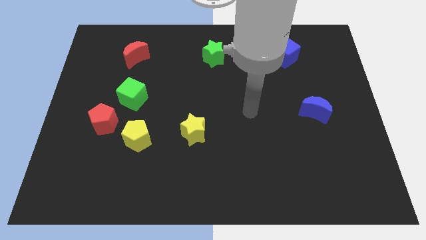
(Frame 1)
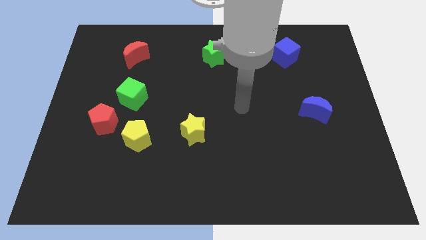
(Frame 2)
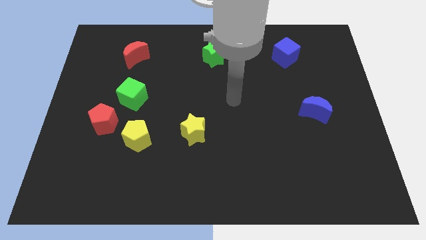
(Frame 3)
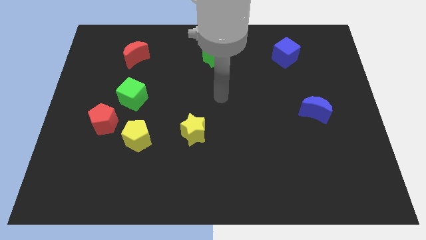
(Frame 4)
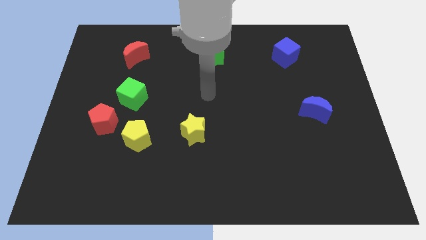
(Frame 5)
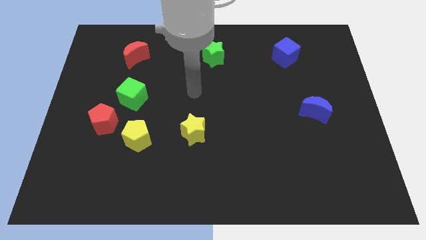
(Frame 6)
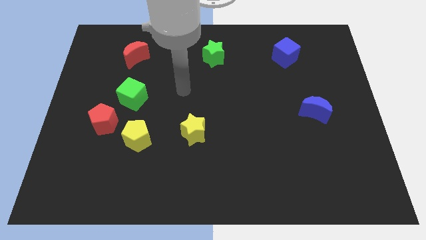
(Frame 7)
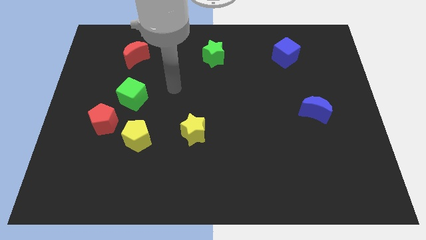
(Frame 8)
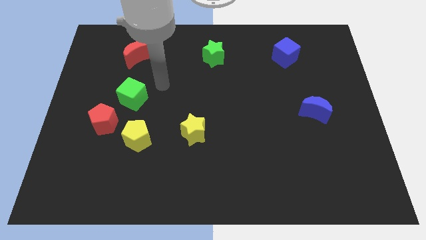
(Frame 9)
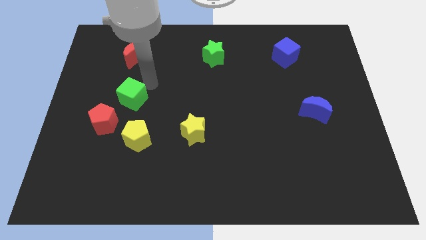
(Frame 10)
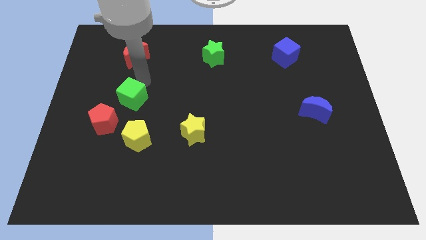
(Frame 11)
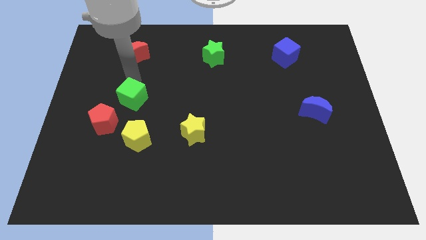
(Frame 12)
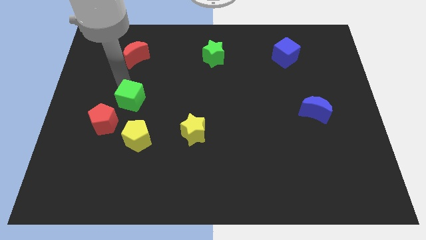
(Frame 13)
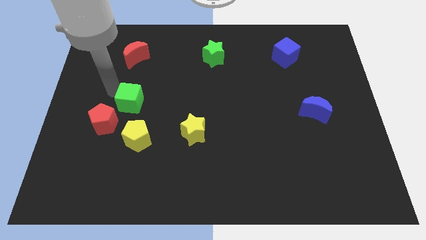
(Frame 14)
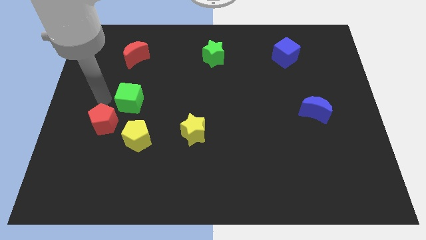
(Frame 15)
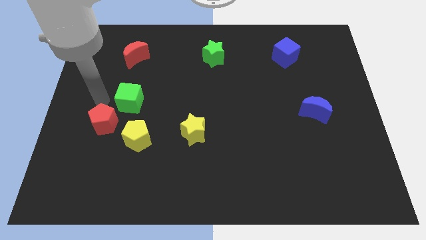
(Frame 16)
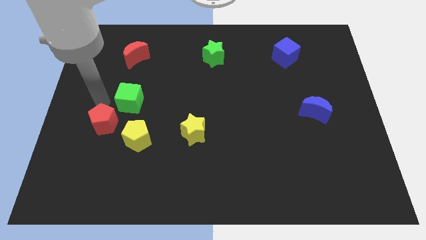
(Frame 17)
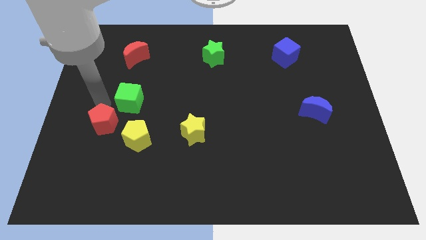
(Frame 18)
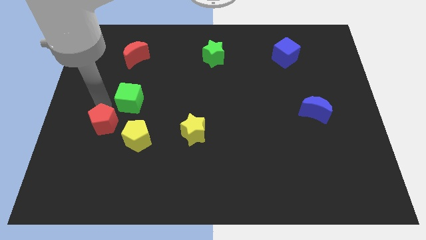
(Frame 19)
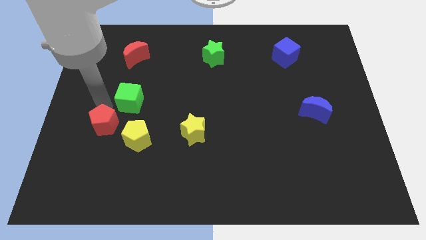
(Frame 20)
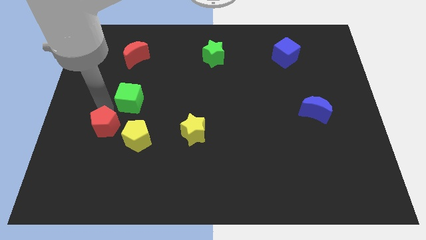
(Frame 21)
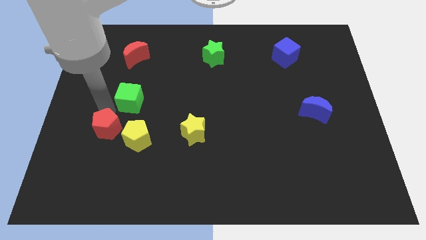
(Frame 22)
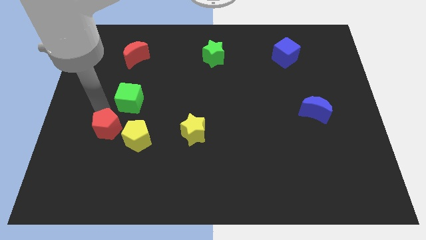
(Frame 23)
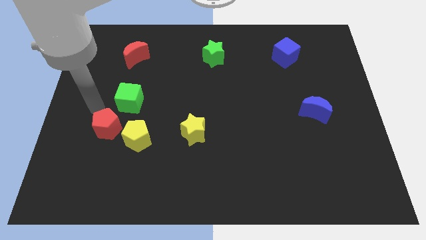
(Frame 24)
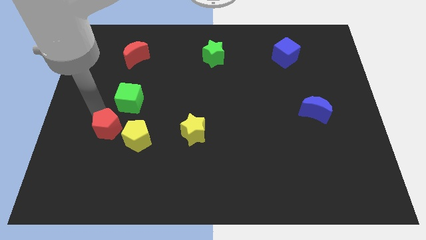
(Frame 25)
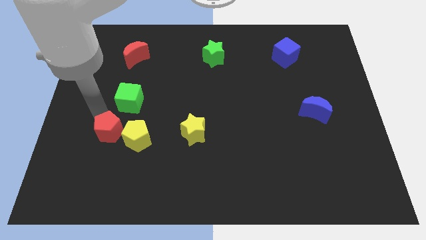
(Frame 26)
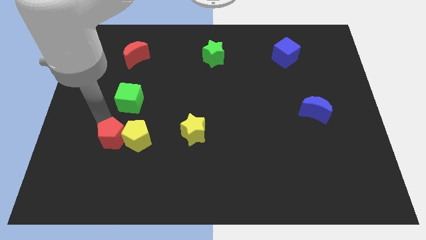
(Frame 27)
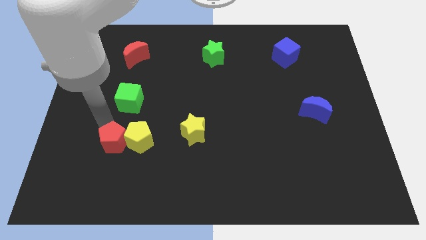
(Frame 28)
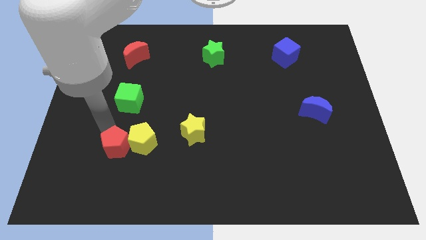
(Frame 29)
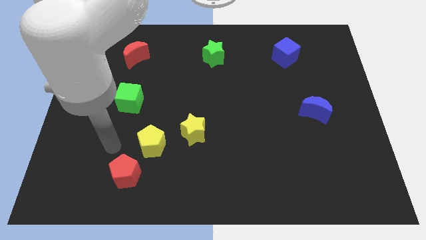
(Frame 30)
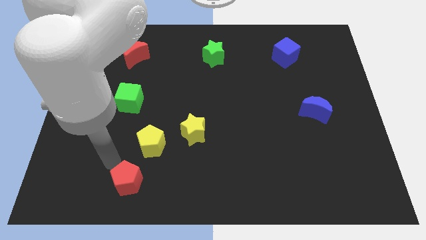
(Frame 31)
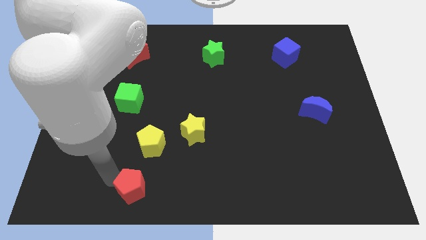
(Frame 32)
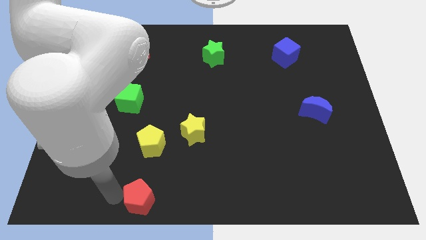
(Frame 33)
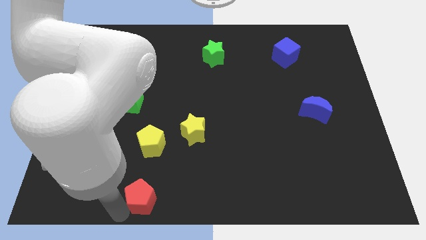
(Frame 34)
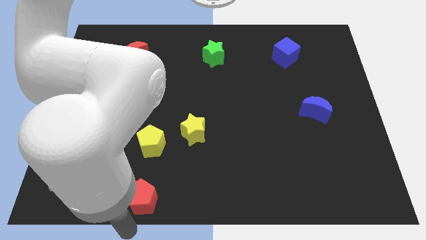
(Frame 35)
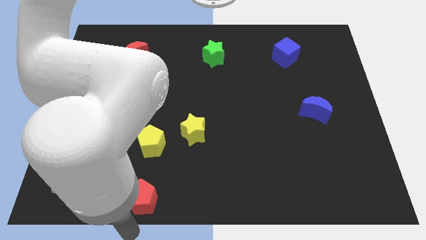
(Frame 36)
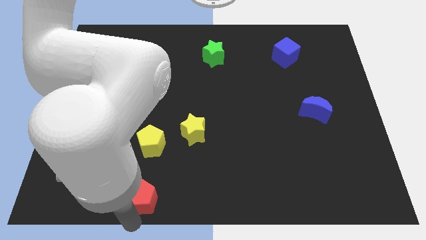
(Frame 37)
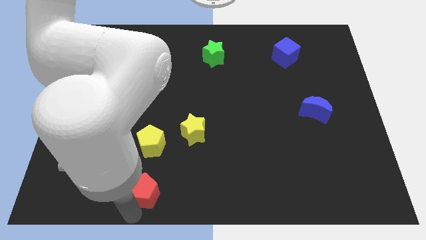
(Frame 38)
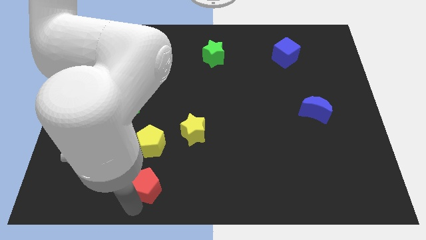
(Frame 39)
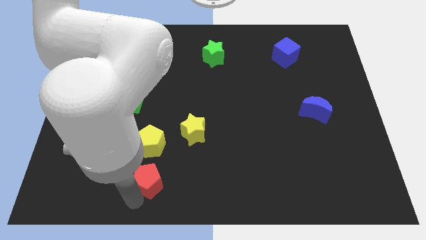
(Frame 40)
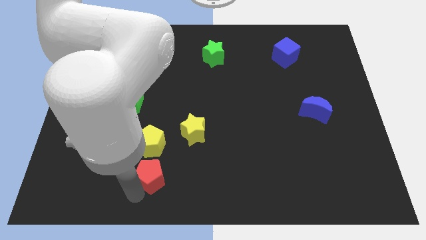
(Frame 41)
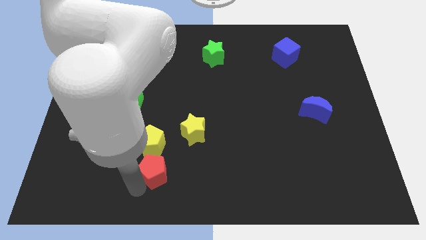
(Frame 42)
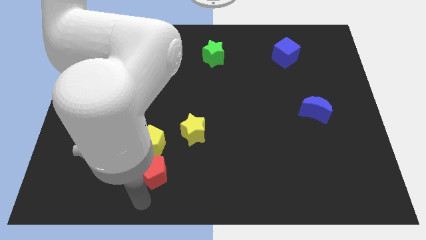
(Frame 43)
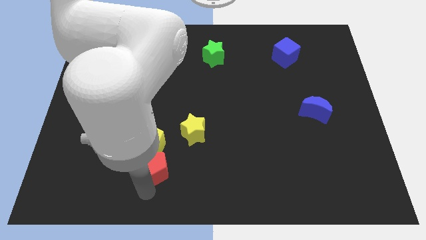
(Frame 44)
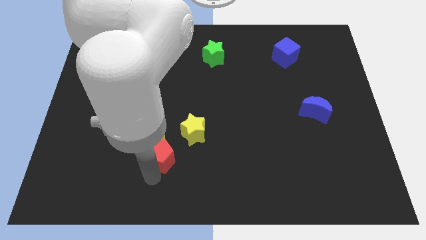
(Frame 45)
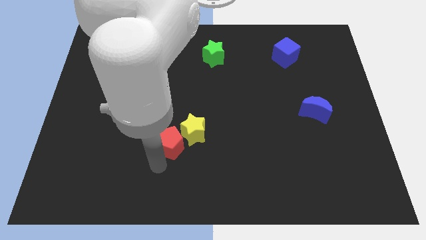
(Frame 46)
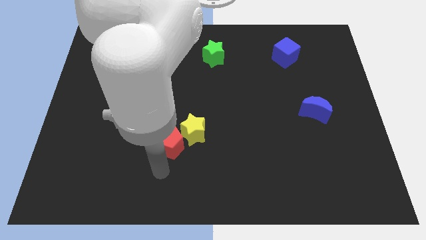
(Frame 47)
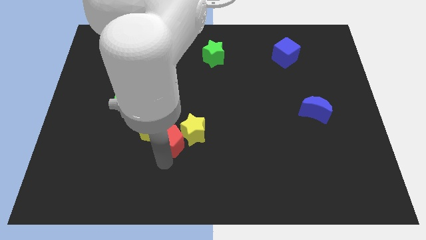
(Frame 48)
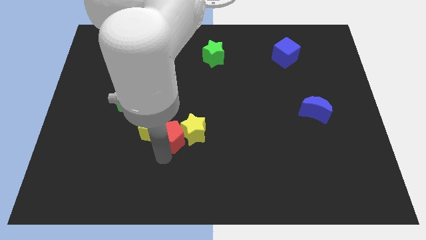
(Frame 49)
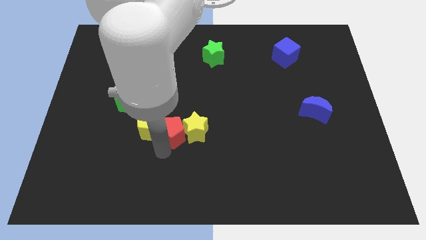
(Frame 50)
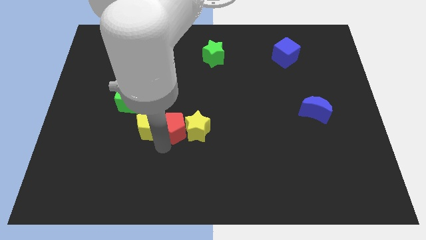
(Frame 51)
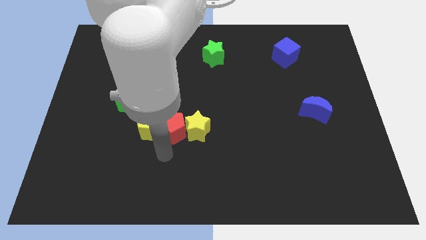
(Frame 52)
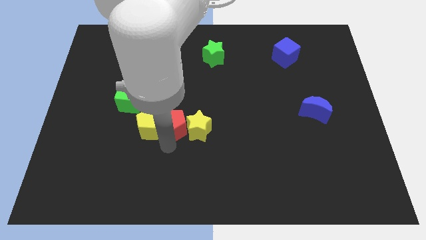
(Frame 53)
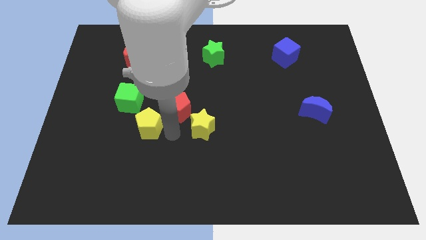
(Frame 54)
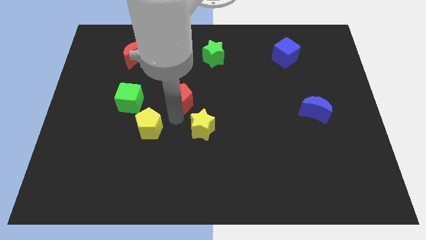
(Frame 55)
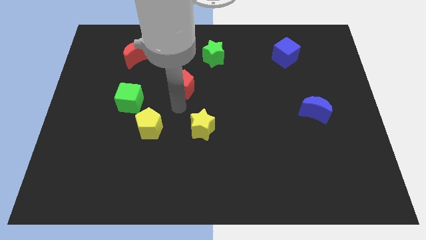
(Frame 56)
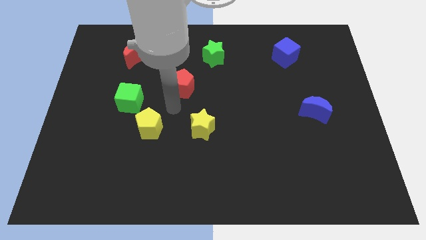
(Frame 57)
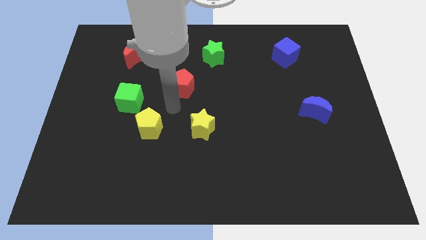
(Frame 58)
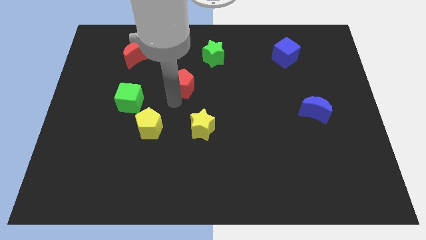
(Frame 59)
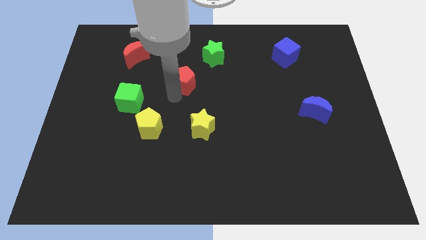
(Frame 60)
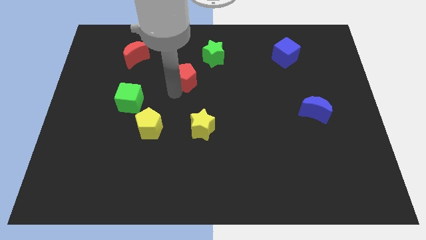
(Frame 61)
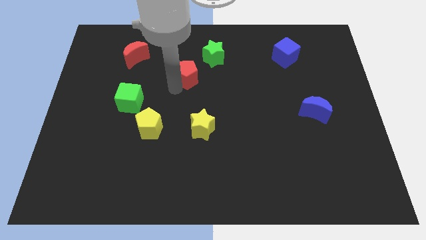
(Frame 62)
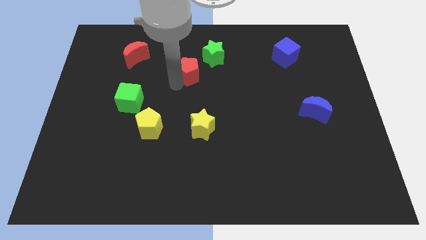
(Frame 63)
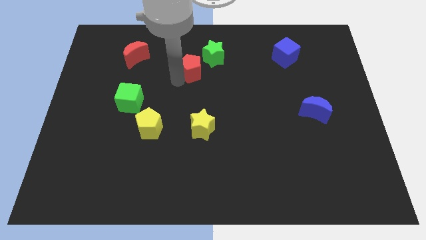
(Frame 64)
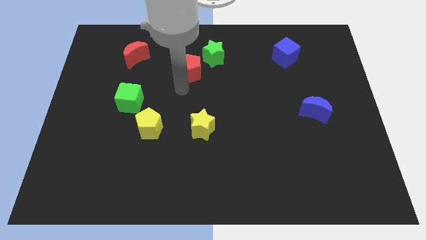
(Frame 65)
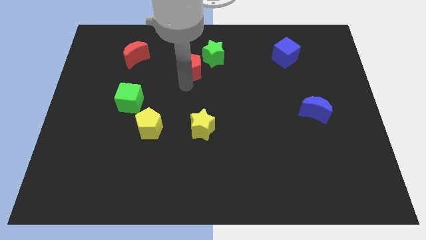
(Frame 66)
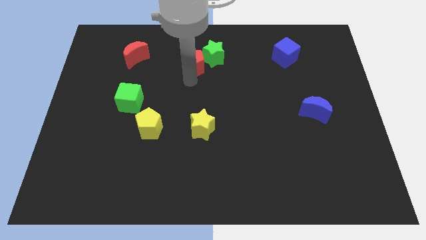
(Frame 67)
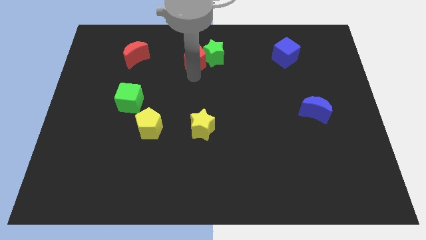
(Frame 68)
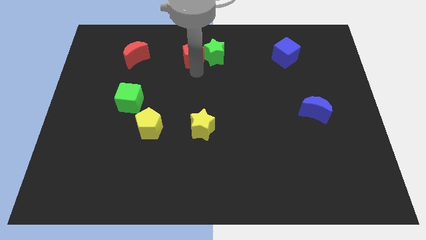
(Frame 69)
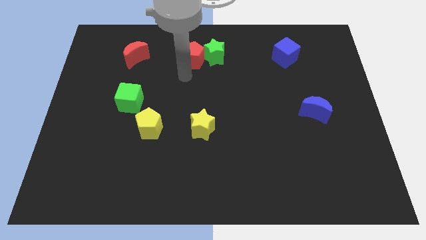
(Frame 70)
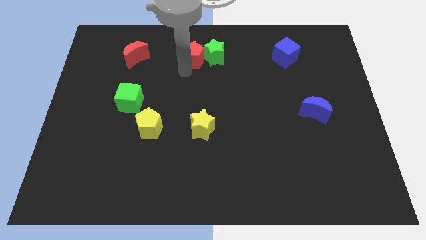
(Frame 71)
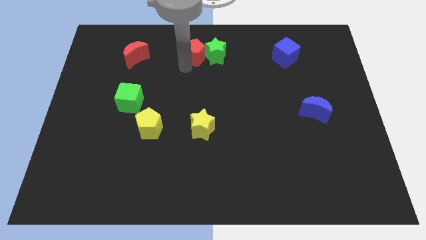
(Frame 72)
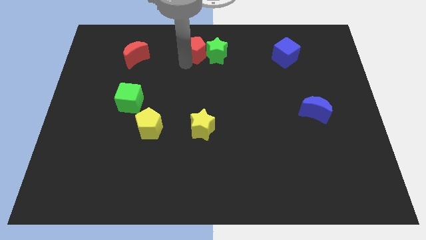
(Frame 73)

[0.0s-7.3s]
push the red pentagon to the top
